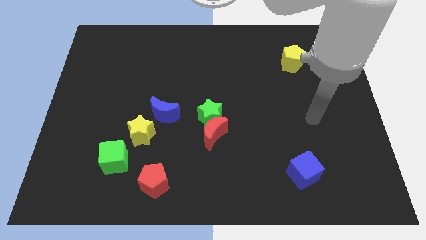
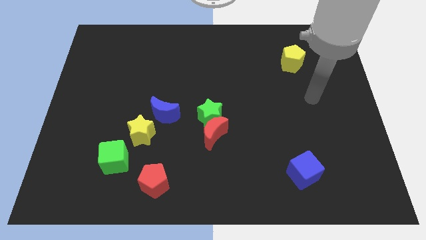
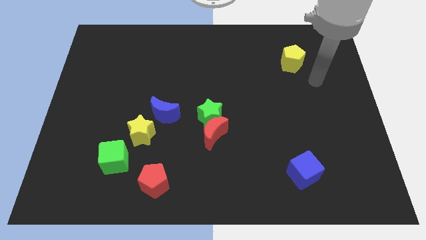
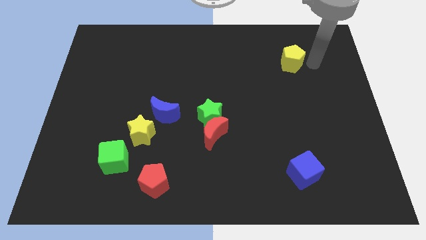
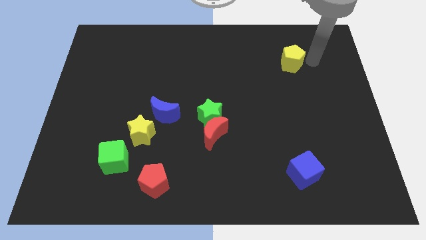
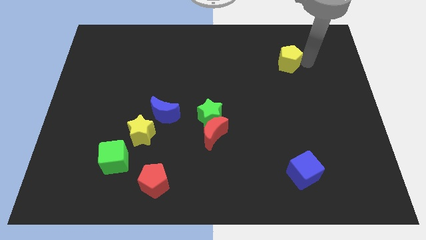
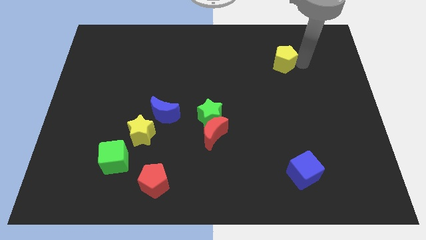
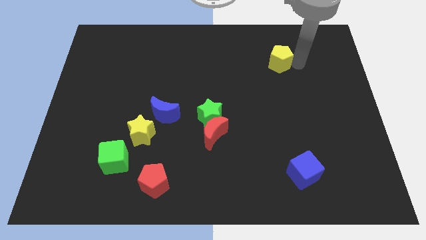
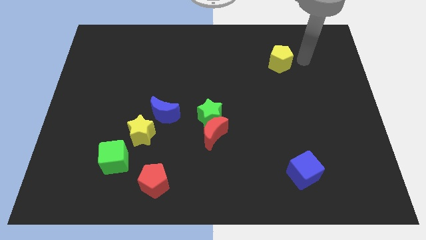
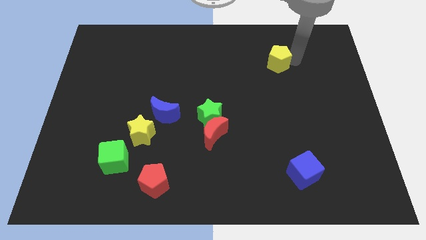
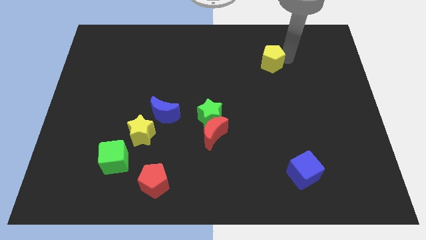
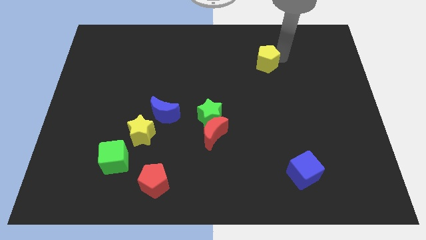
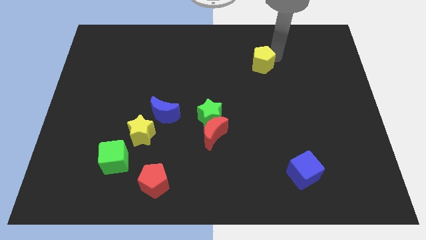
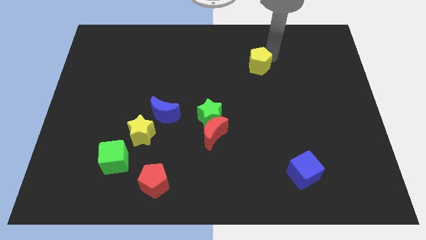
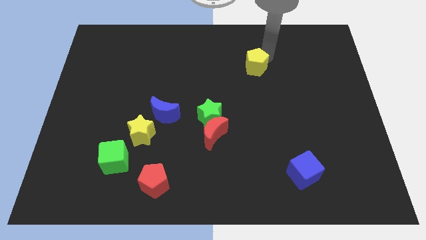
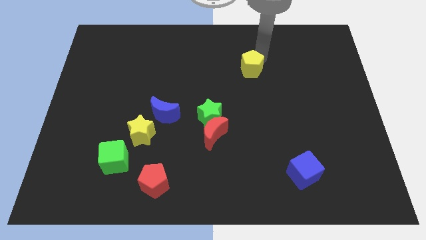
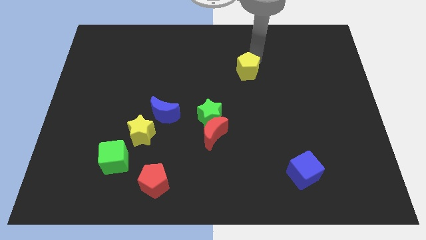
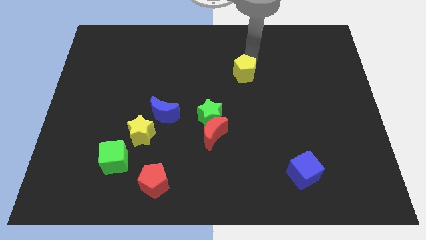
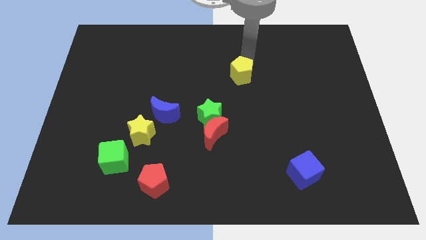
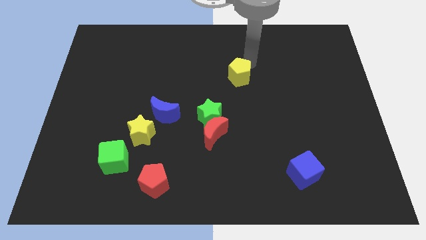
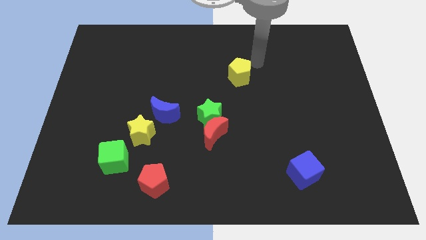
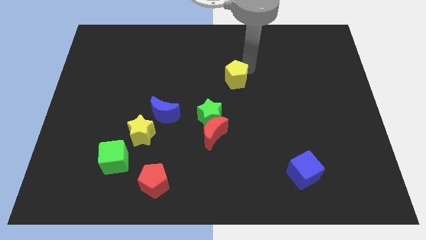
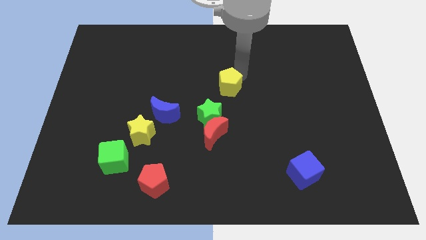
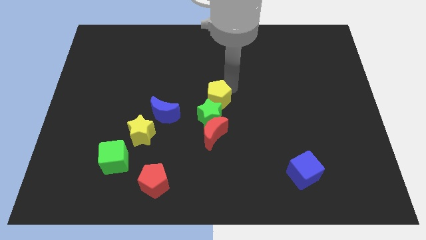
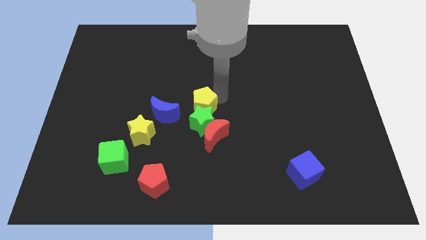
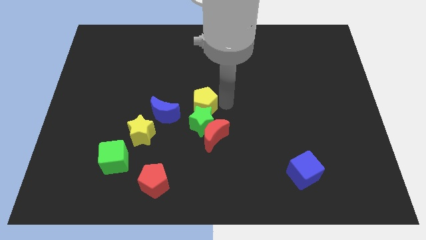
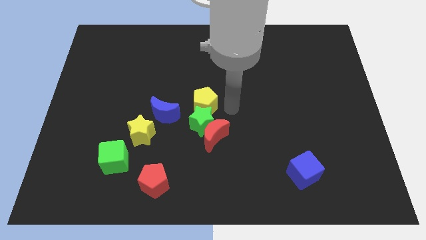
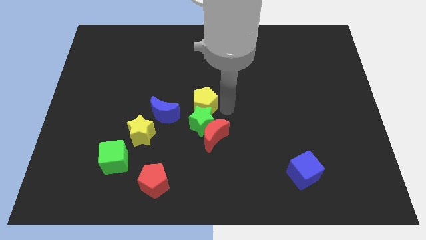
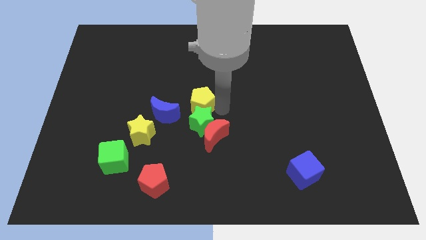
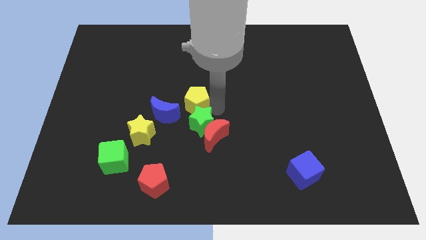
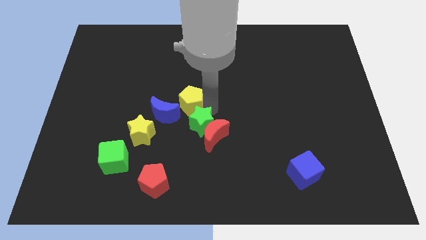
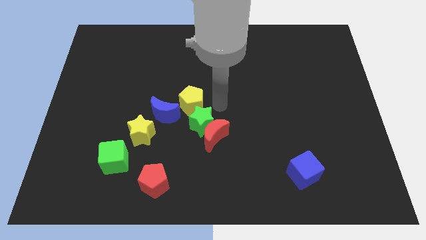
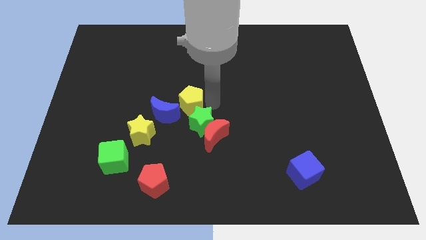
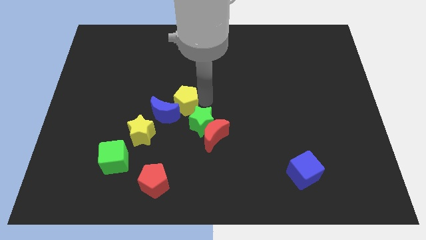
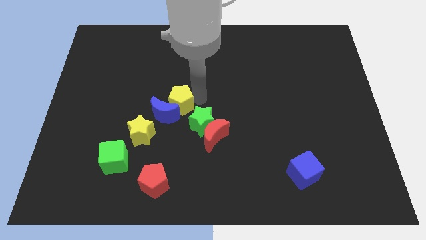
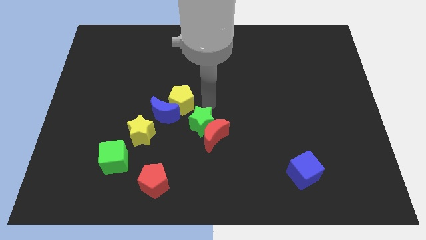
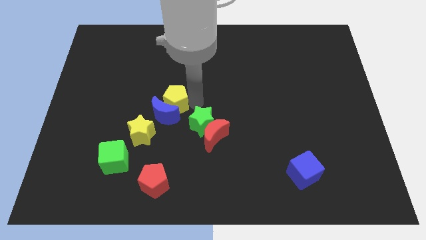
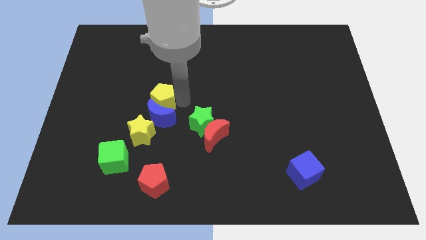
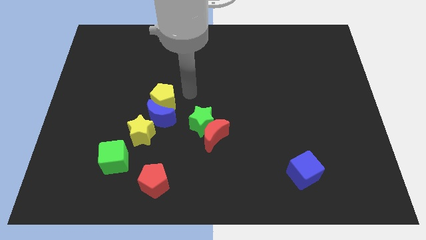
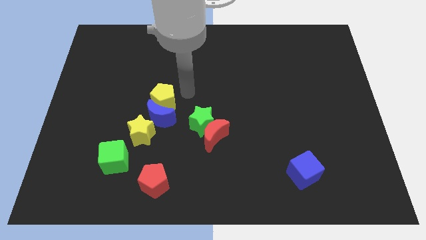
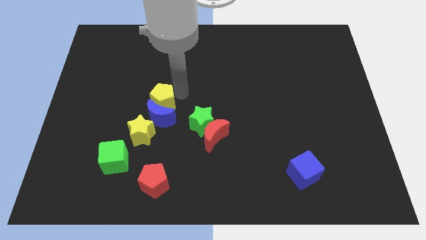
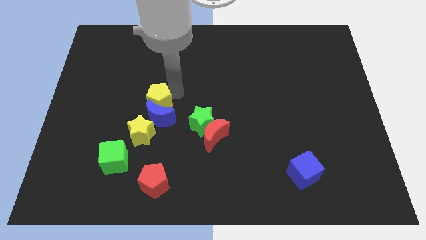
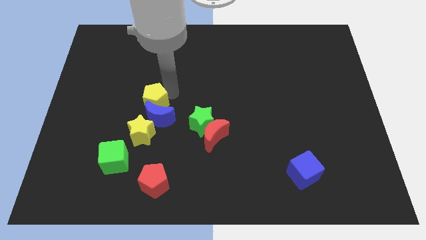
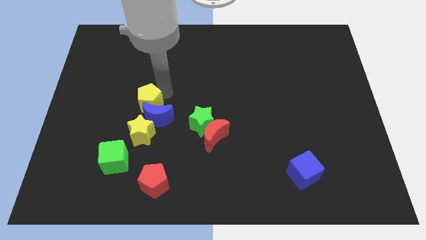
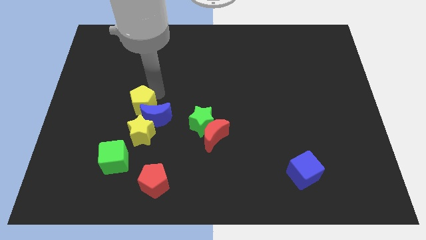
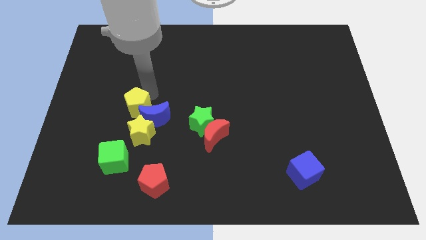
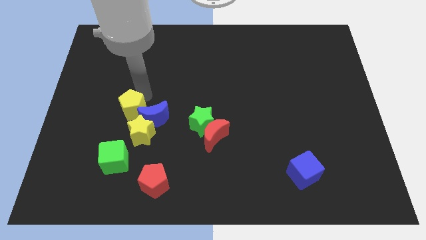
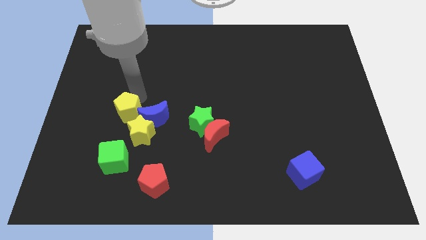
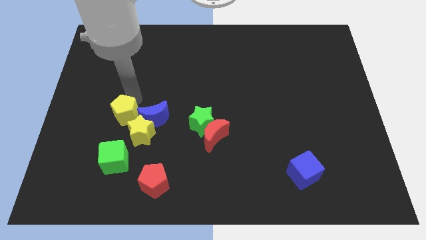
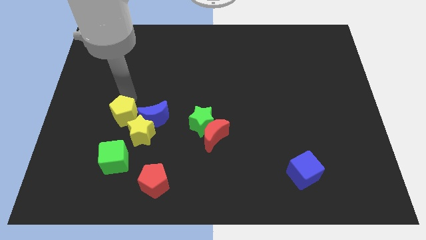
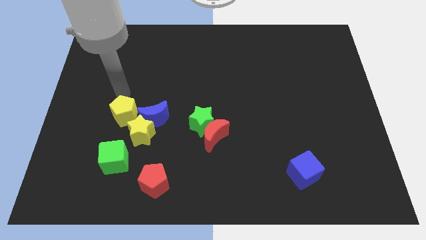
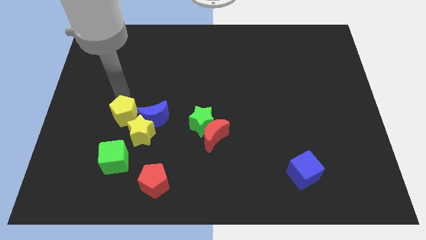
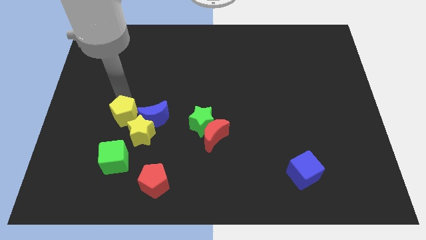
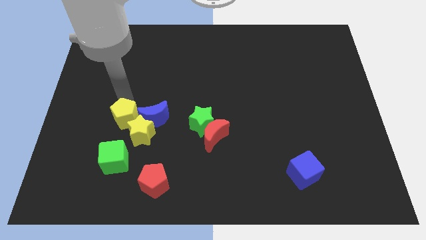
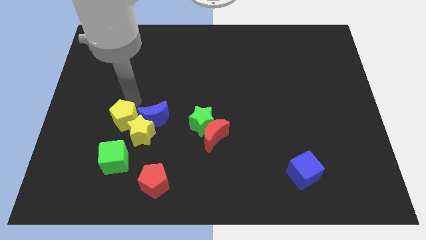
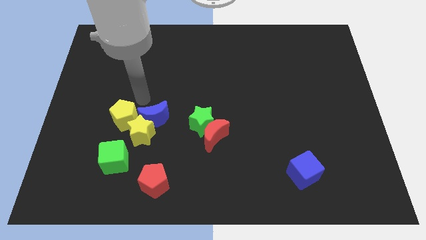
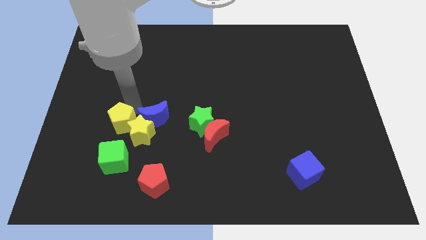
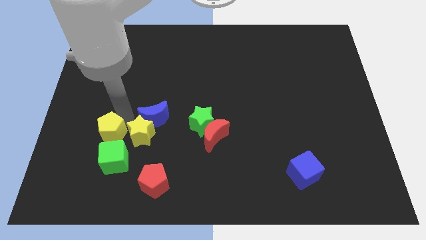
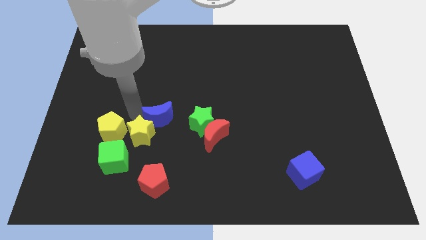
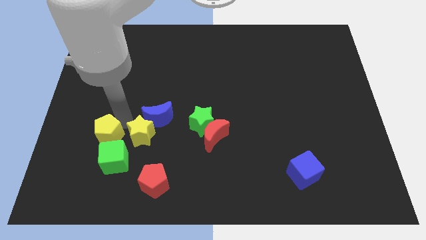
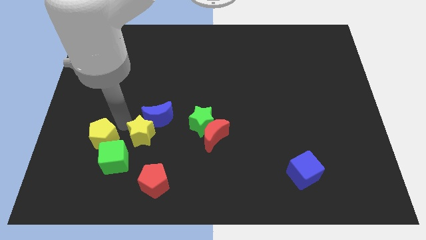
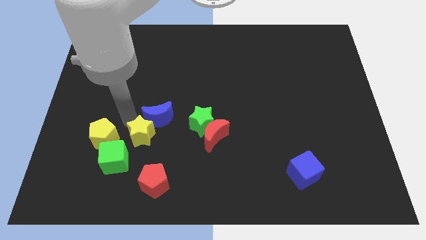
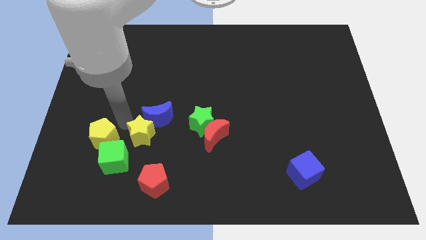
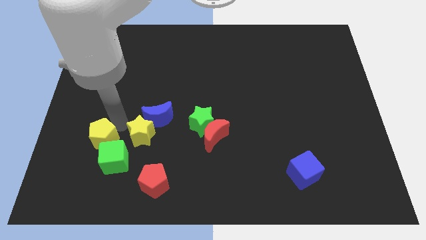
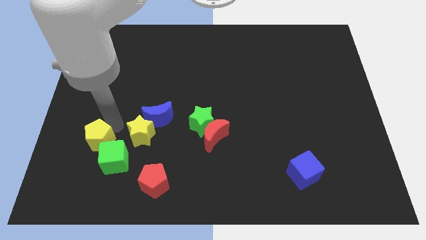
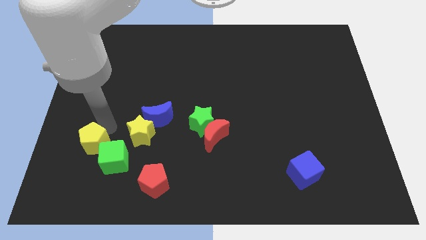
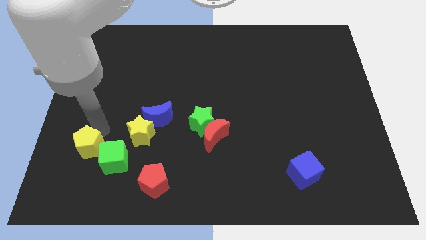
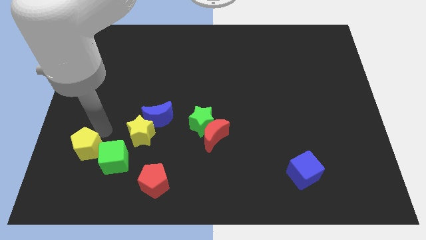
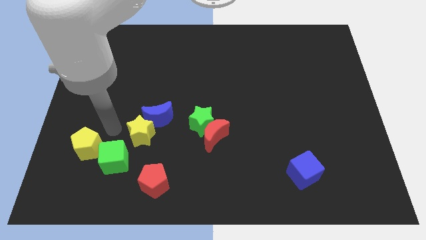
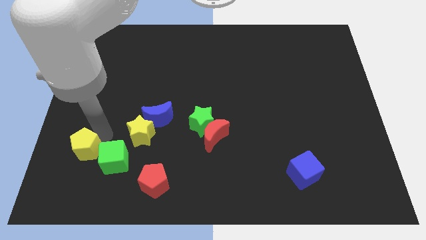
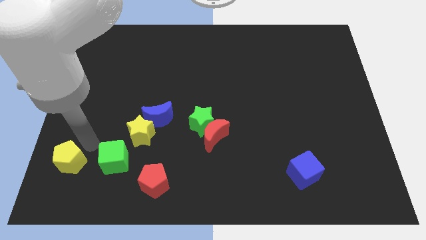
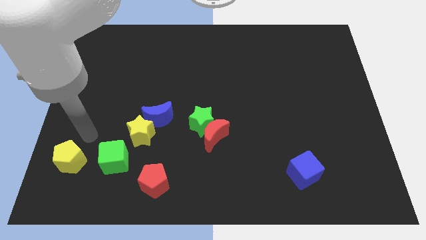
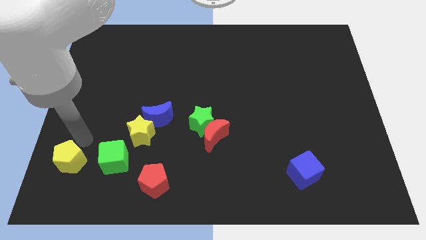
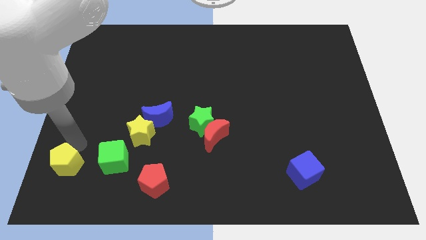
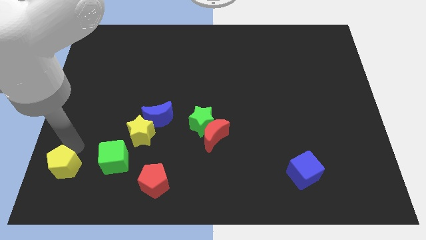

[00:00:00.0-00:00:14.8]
move the yellow pentagon to the bottom left corner
